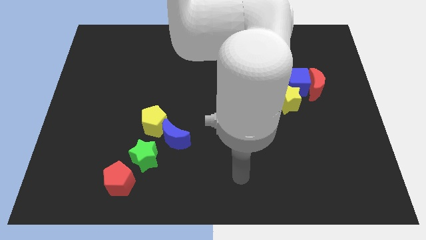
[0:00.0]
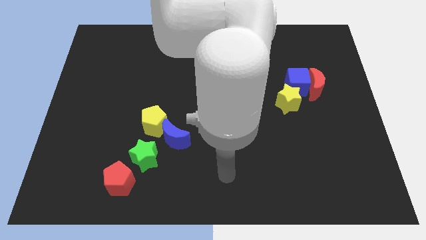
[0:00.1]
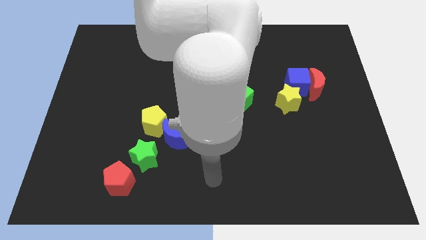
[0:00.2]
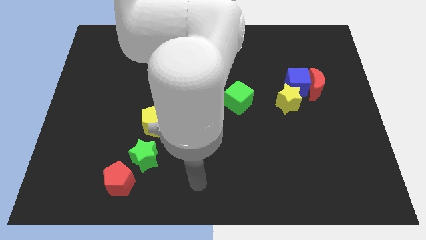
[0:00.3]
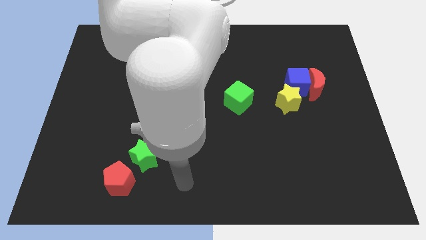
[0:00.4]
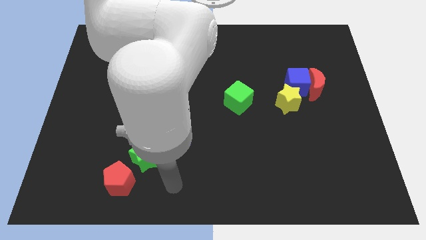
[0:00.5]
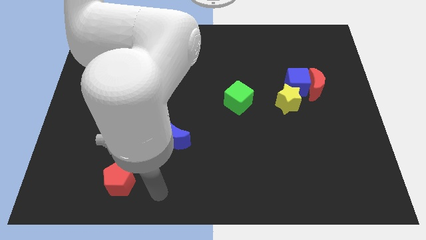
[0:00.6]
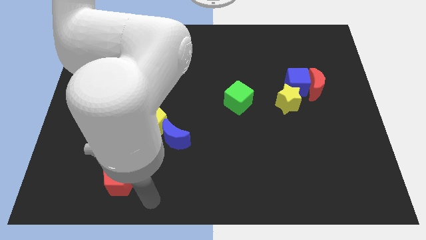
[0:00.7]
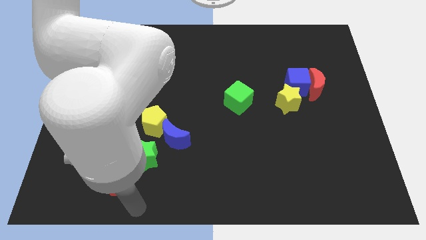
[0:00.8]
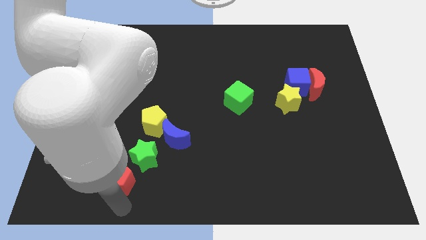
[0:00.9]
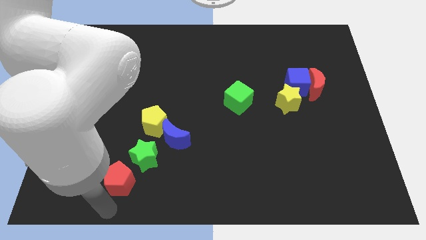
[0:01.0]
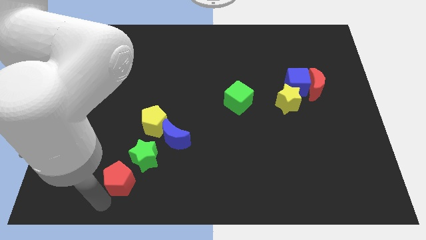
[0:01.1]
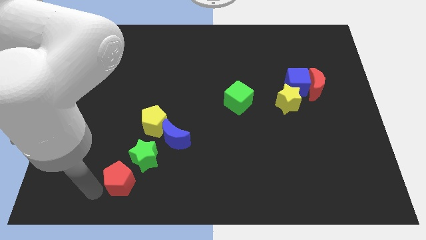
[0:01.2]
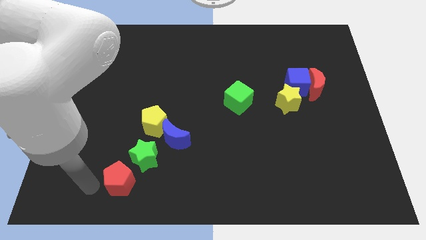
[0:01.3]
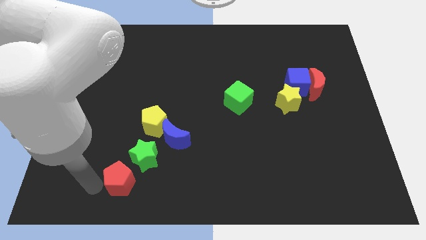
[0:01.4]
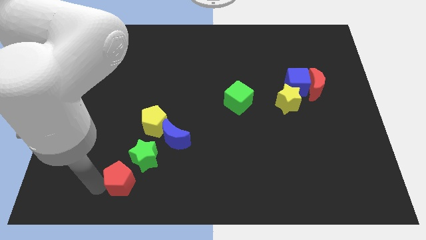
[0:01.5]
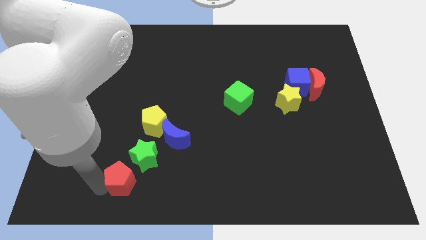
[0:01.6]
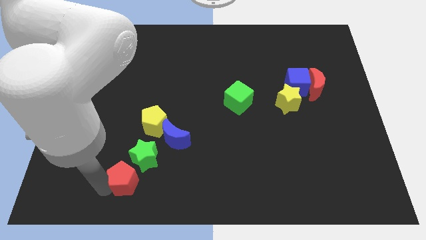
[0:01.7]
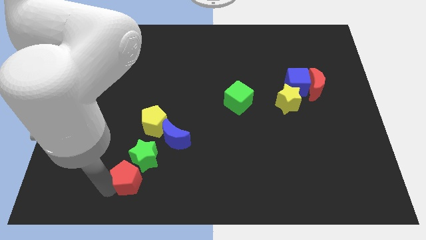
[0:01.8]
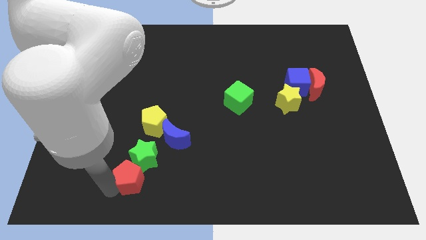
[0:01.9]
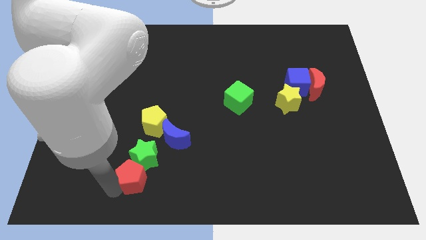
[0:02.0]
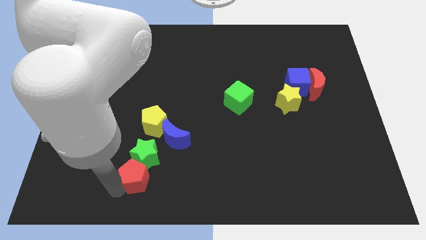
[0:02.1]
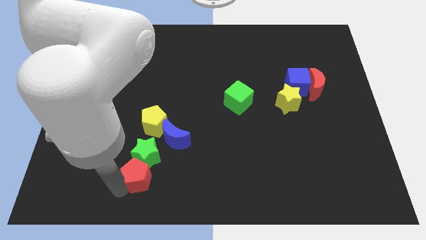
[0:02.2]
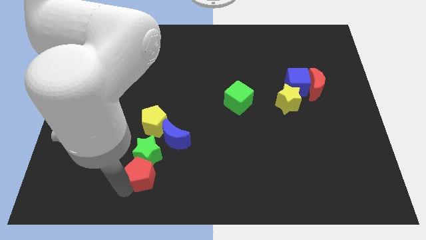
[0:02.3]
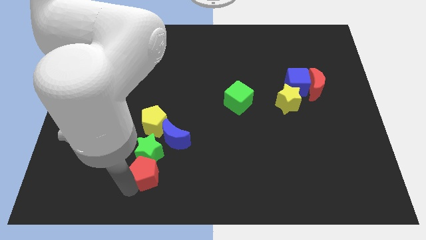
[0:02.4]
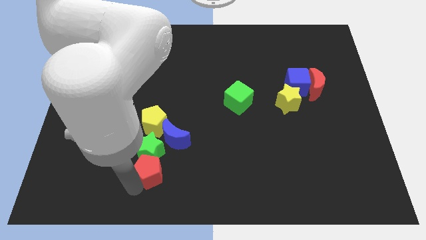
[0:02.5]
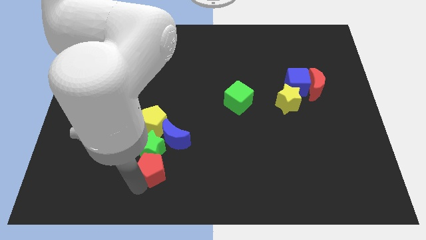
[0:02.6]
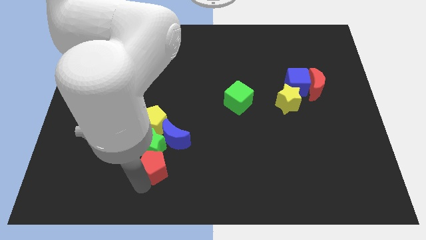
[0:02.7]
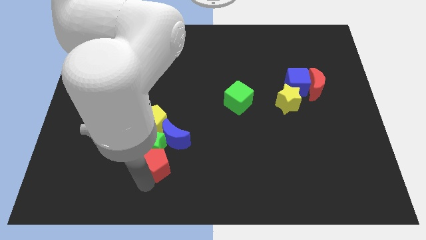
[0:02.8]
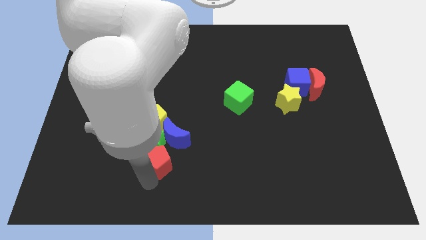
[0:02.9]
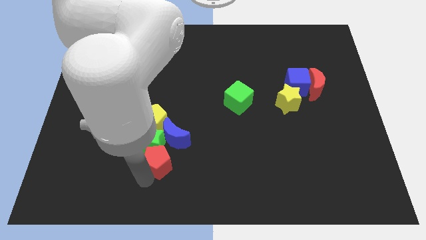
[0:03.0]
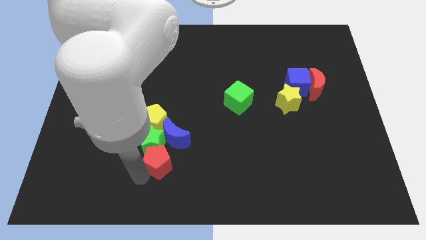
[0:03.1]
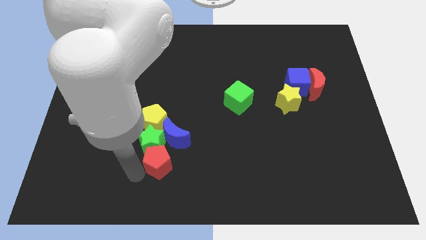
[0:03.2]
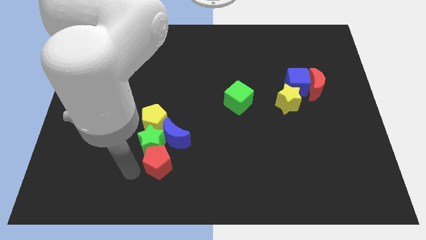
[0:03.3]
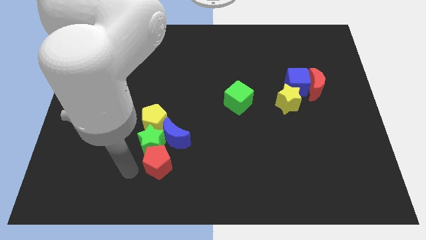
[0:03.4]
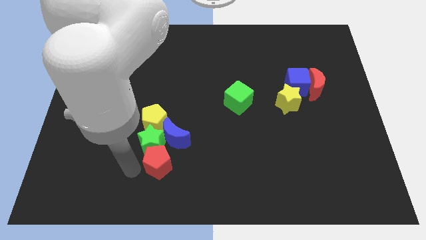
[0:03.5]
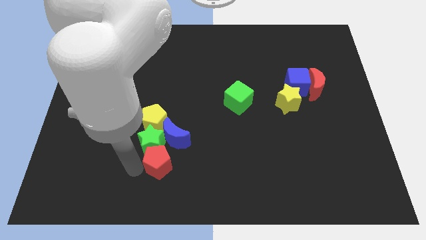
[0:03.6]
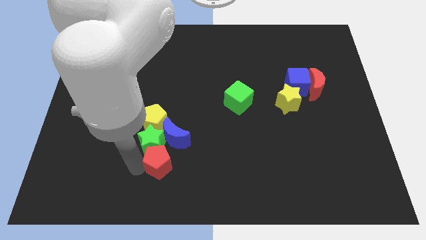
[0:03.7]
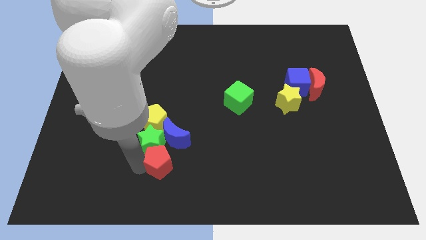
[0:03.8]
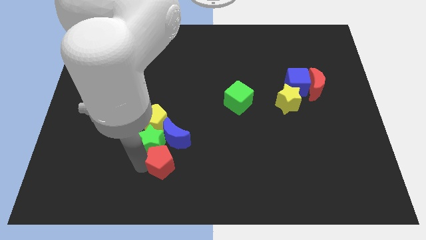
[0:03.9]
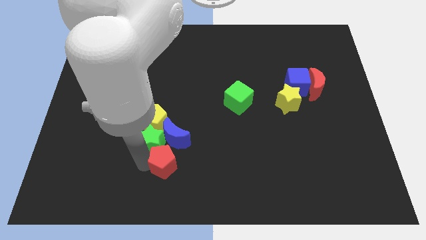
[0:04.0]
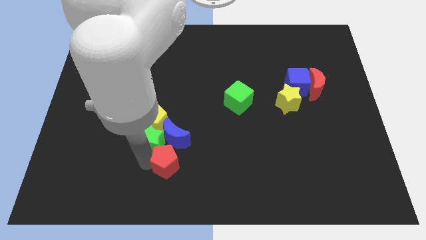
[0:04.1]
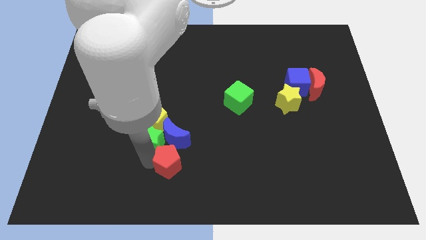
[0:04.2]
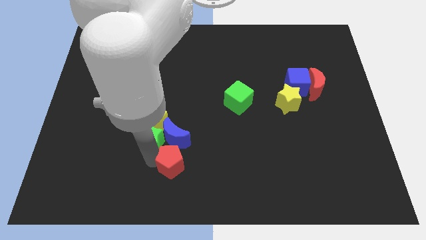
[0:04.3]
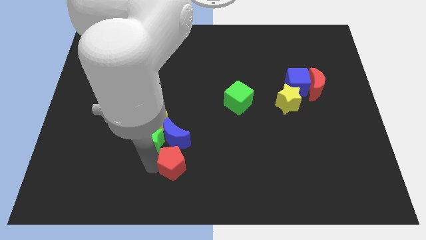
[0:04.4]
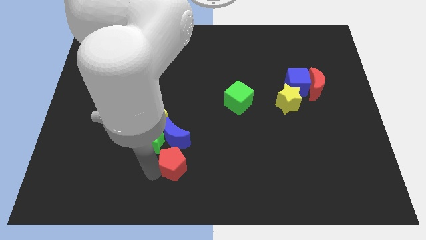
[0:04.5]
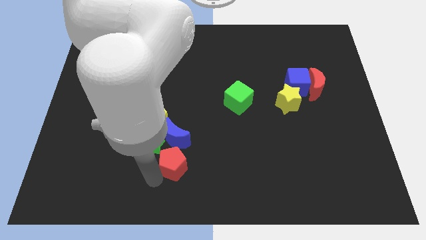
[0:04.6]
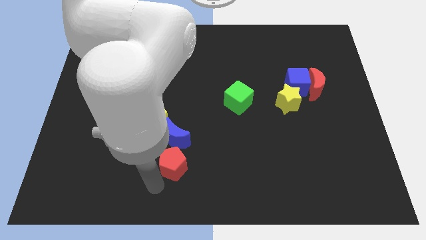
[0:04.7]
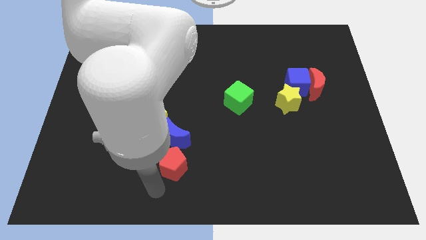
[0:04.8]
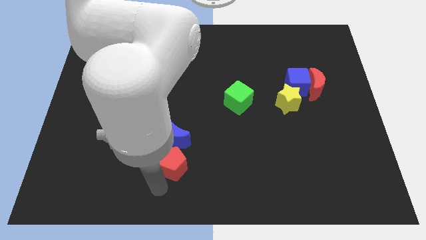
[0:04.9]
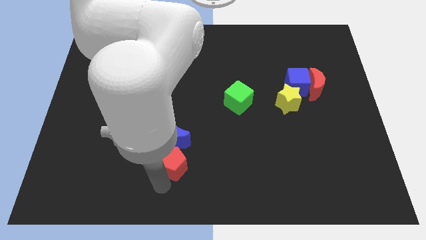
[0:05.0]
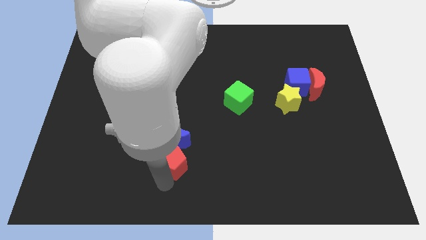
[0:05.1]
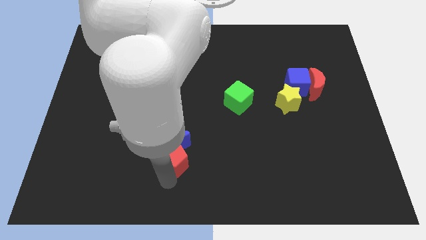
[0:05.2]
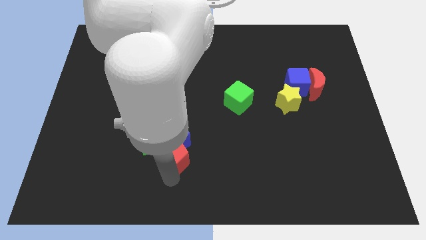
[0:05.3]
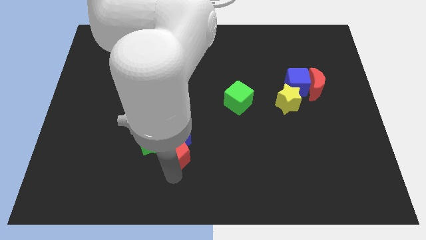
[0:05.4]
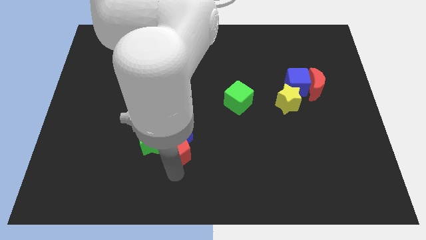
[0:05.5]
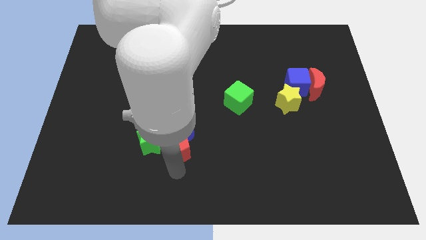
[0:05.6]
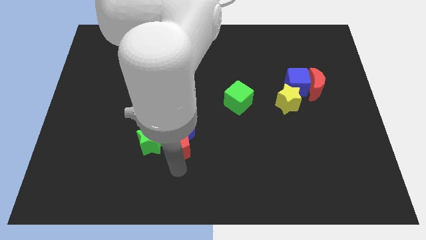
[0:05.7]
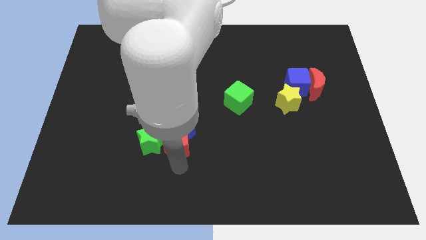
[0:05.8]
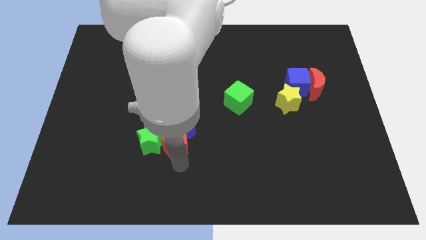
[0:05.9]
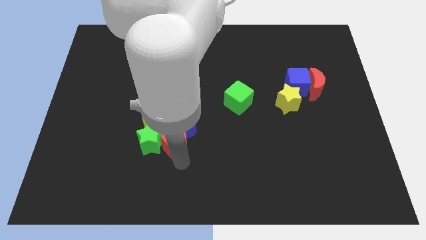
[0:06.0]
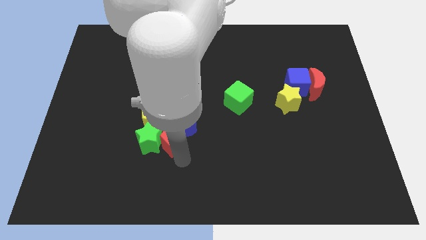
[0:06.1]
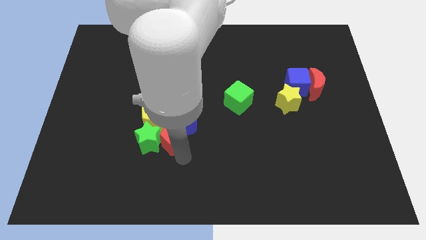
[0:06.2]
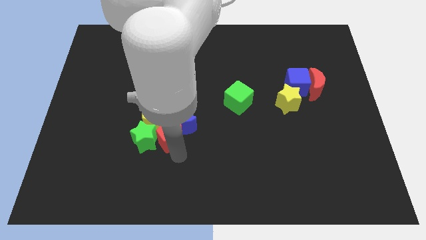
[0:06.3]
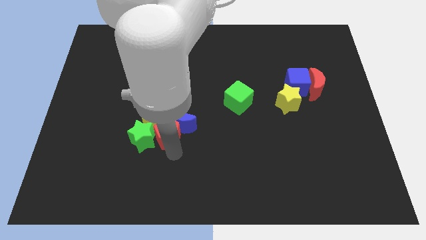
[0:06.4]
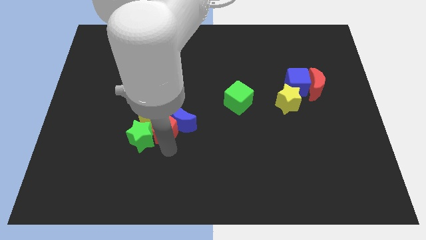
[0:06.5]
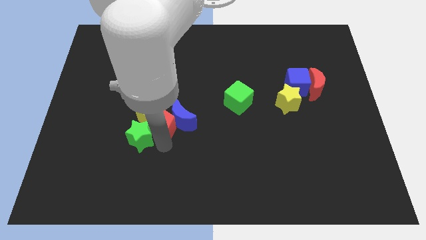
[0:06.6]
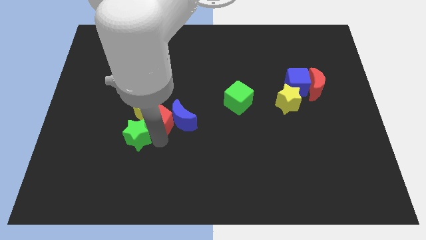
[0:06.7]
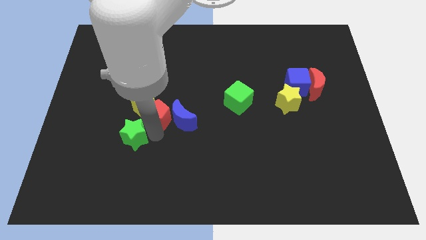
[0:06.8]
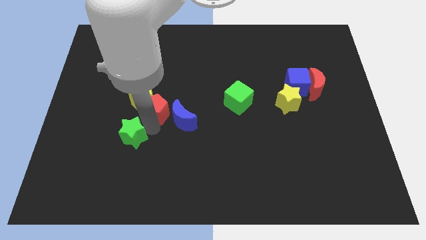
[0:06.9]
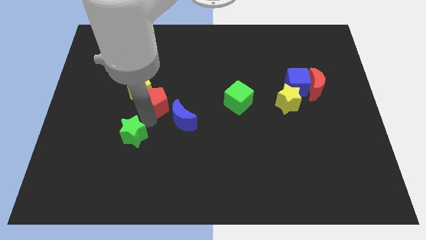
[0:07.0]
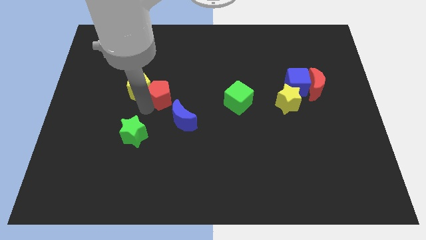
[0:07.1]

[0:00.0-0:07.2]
push the red pentagon to the center of the board
